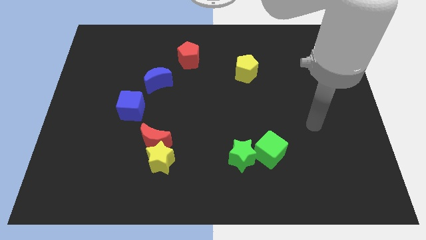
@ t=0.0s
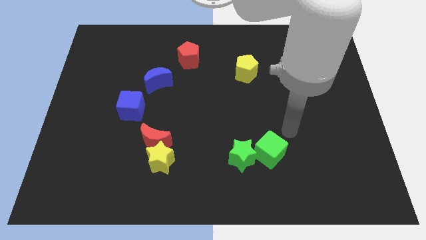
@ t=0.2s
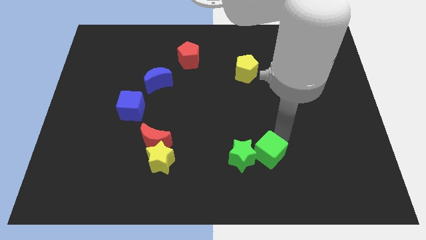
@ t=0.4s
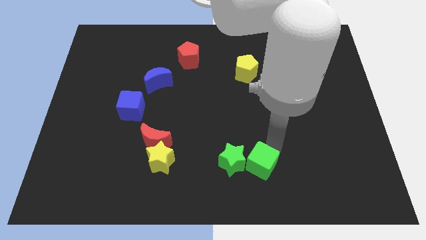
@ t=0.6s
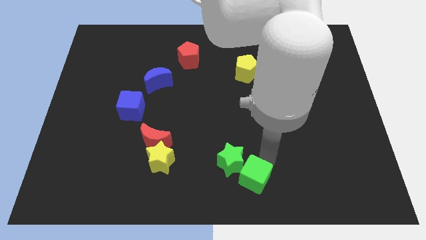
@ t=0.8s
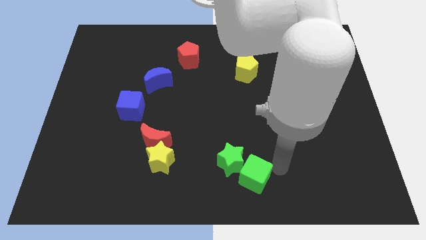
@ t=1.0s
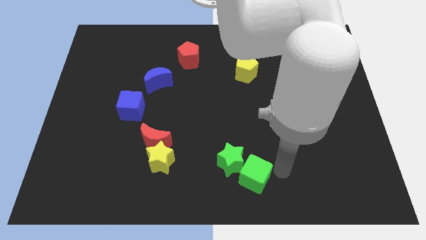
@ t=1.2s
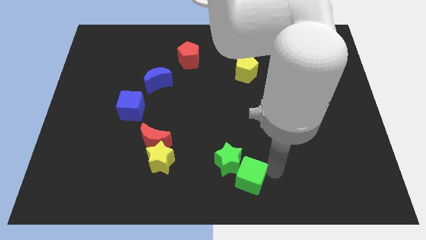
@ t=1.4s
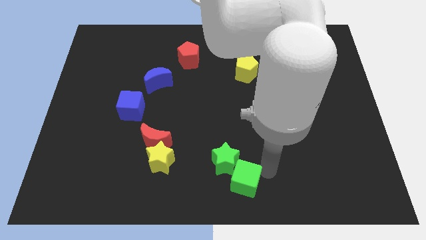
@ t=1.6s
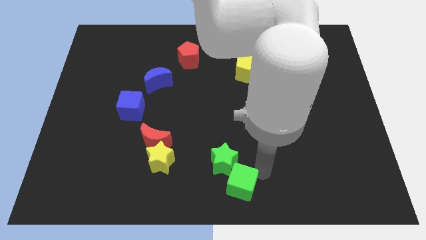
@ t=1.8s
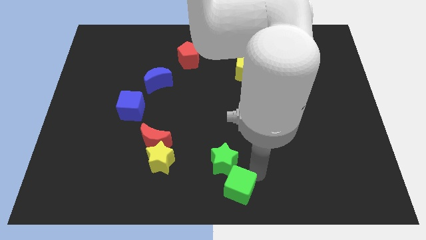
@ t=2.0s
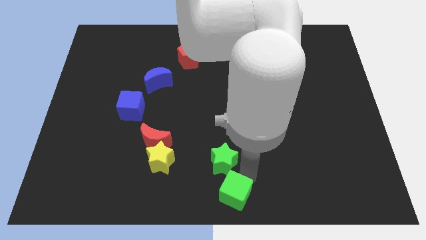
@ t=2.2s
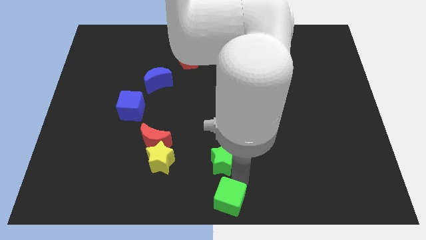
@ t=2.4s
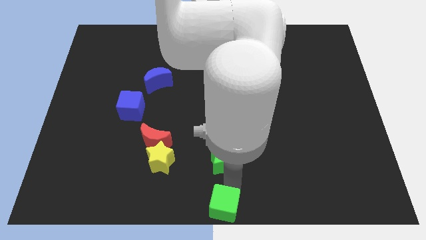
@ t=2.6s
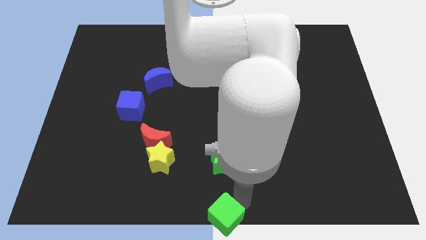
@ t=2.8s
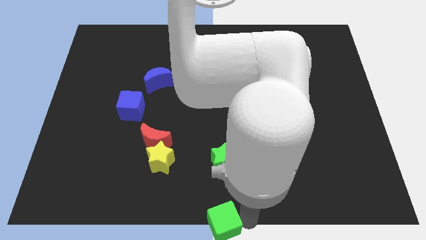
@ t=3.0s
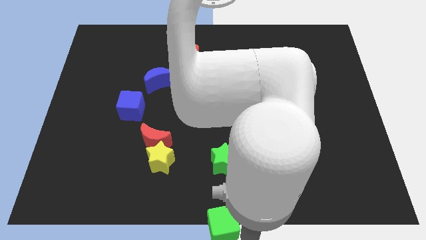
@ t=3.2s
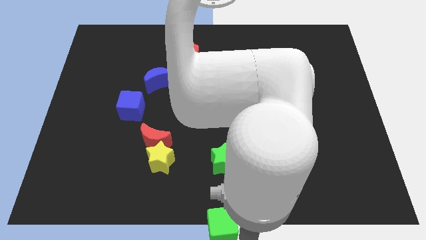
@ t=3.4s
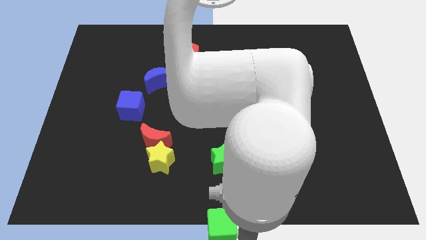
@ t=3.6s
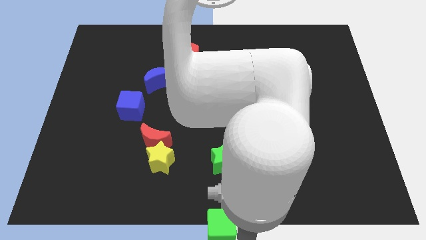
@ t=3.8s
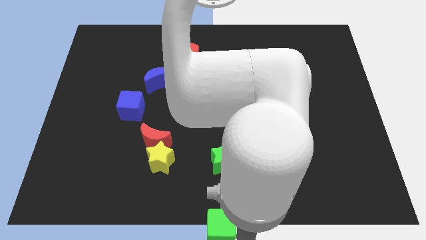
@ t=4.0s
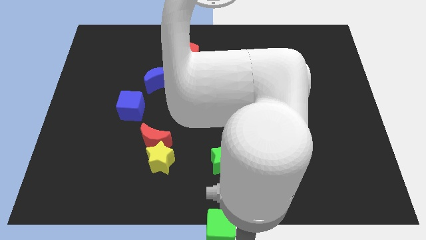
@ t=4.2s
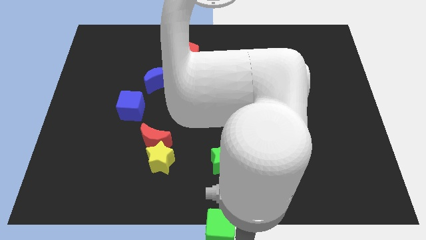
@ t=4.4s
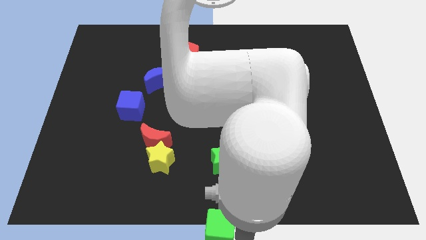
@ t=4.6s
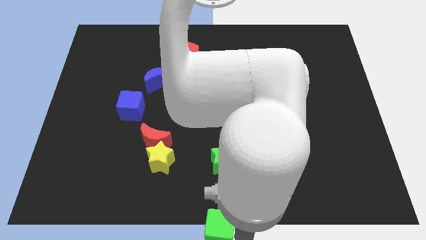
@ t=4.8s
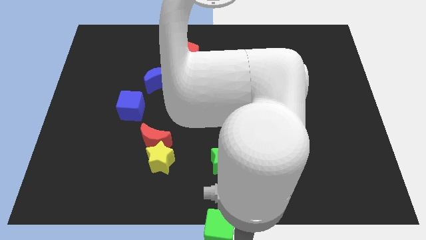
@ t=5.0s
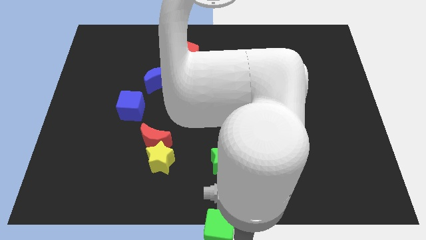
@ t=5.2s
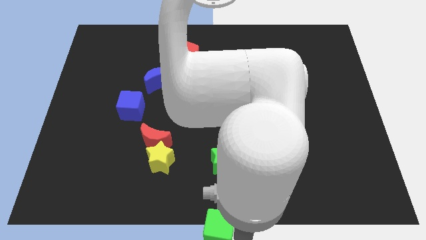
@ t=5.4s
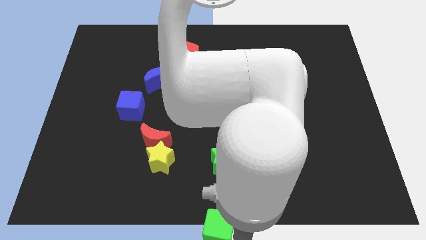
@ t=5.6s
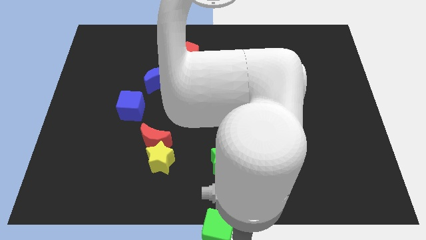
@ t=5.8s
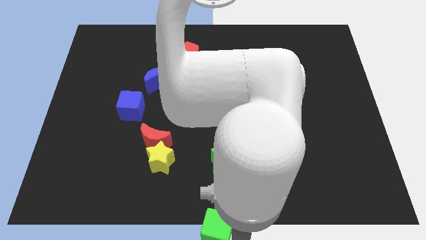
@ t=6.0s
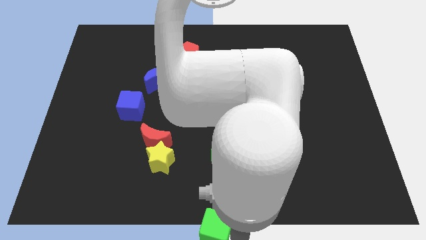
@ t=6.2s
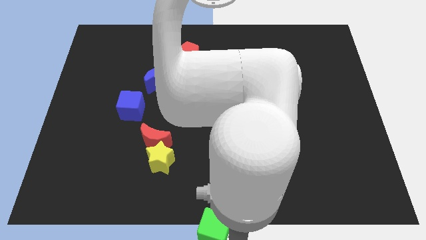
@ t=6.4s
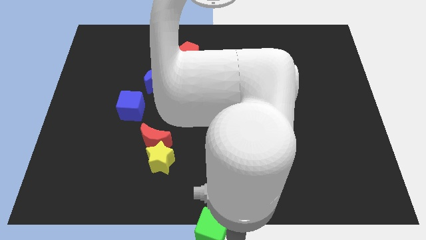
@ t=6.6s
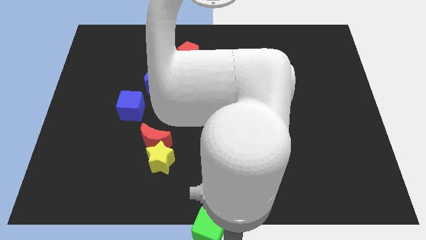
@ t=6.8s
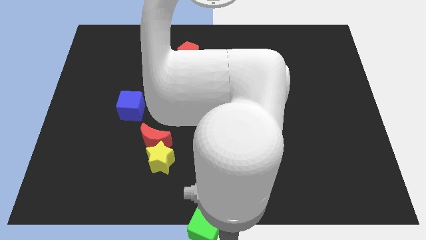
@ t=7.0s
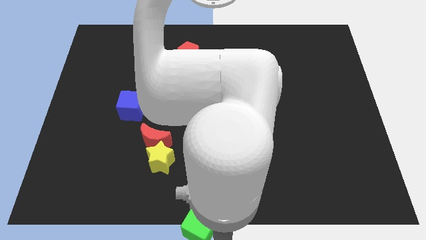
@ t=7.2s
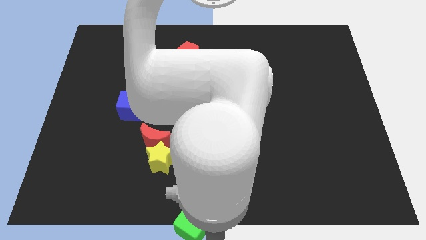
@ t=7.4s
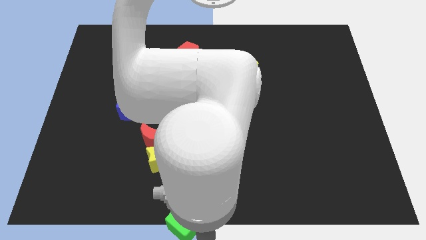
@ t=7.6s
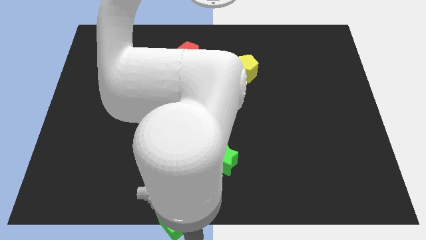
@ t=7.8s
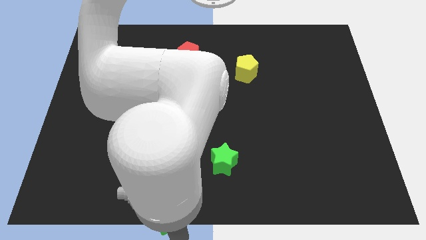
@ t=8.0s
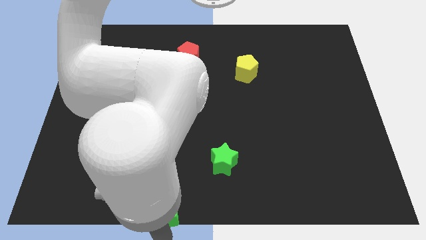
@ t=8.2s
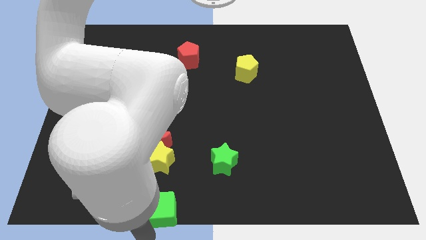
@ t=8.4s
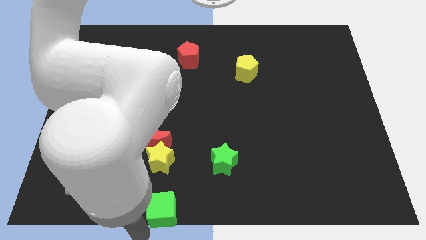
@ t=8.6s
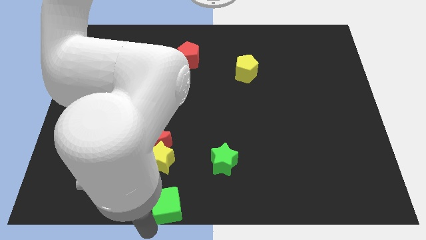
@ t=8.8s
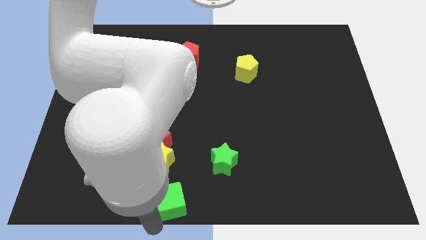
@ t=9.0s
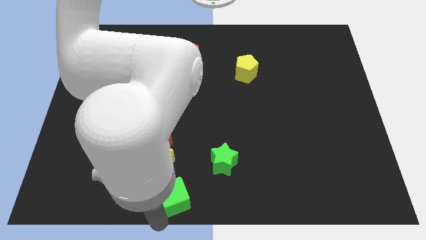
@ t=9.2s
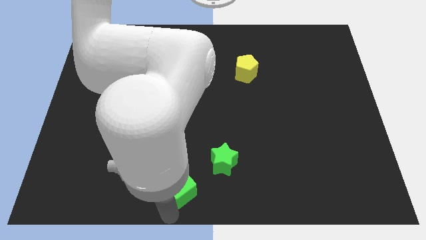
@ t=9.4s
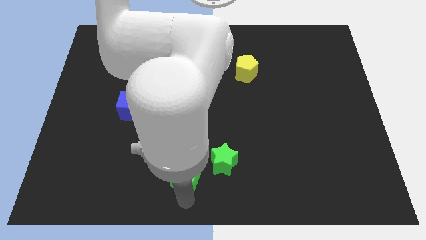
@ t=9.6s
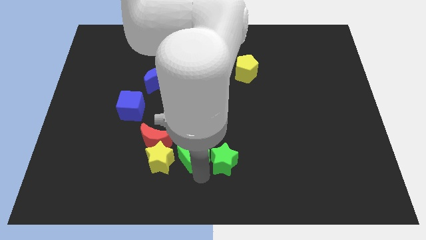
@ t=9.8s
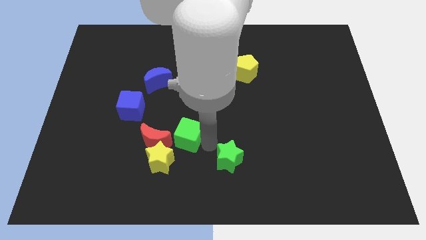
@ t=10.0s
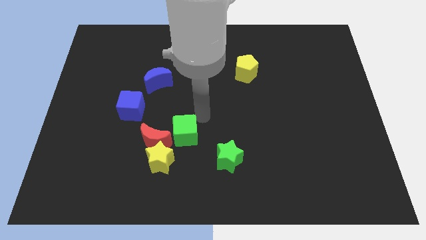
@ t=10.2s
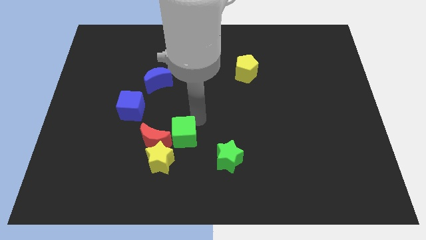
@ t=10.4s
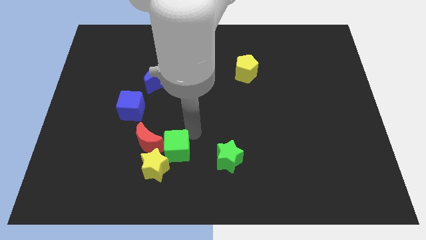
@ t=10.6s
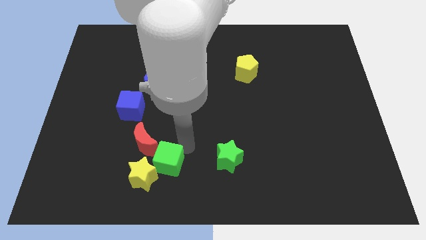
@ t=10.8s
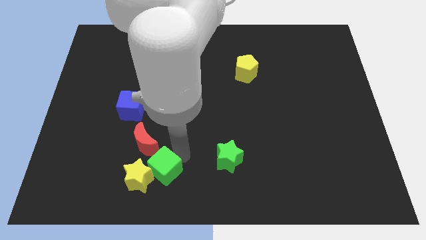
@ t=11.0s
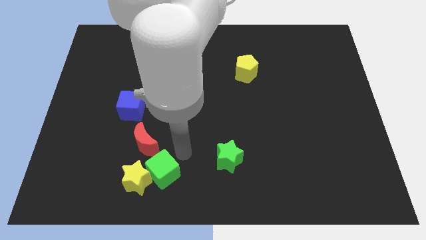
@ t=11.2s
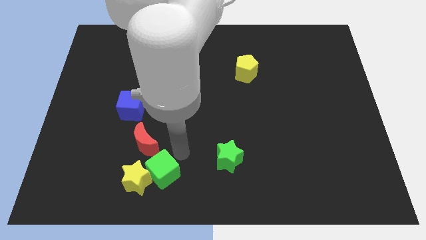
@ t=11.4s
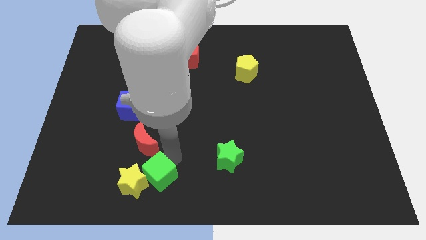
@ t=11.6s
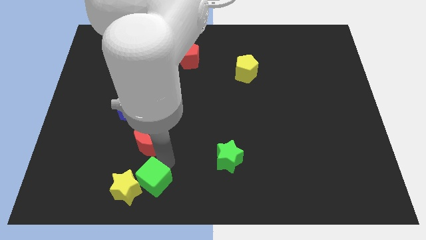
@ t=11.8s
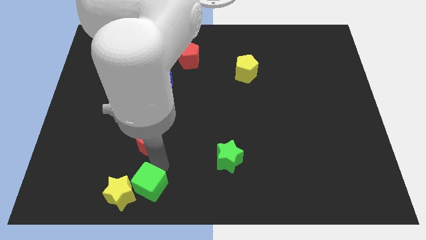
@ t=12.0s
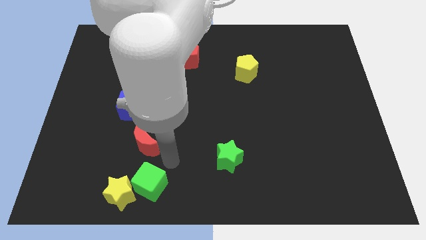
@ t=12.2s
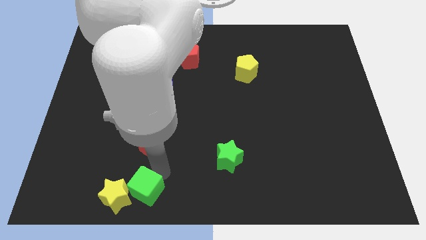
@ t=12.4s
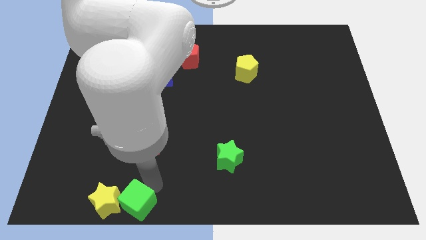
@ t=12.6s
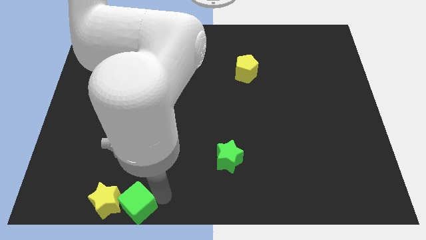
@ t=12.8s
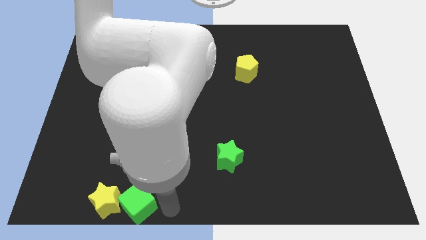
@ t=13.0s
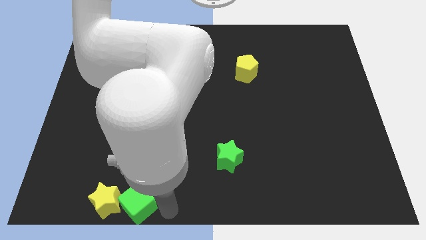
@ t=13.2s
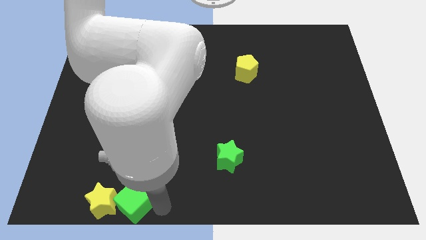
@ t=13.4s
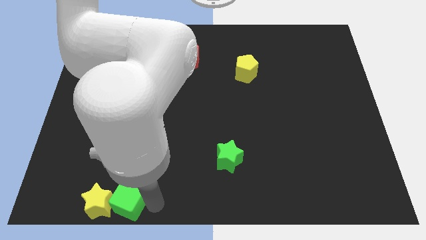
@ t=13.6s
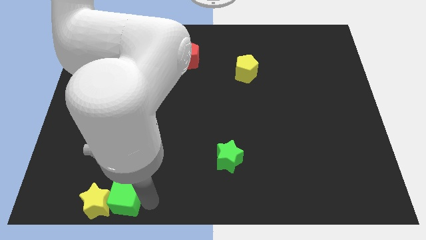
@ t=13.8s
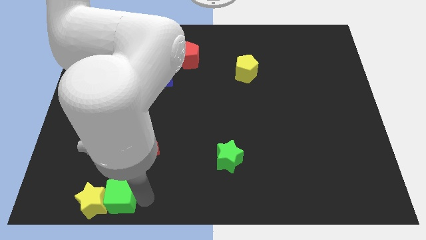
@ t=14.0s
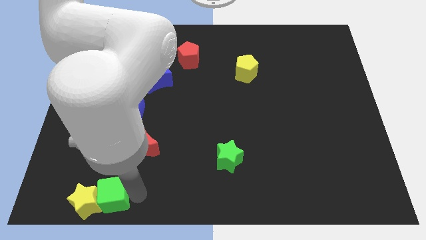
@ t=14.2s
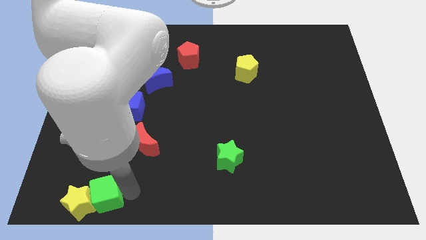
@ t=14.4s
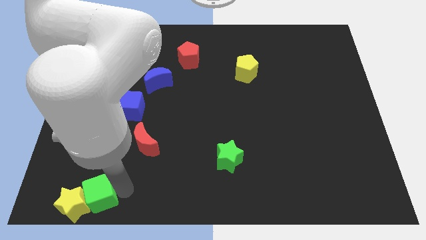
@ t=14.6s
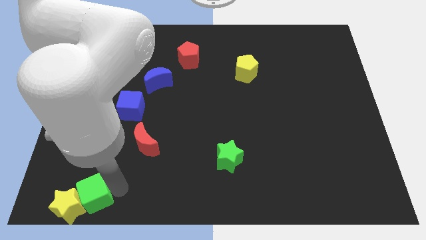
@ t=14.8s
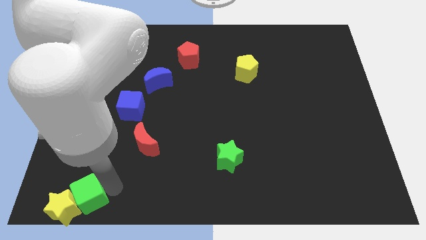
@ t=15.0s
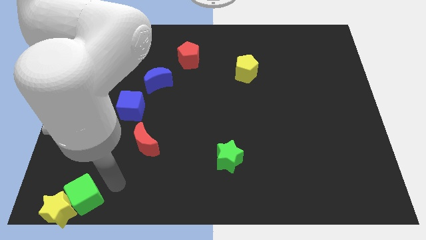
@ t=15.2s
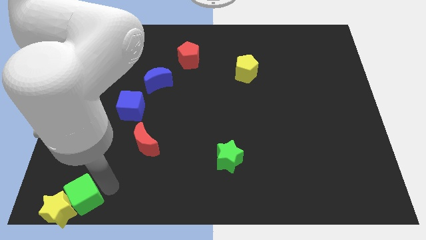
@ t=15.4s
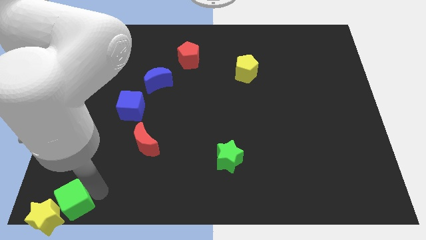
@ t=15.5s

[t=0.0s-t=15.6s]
push the green cube to the bottom left of the board
